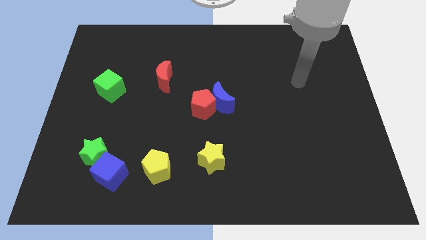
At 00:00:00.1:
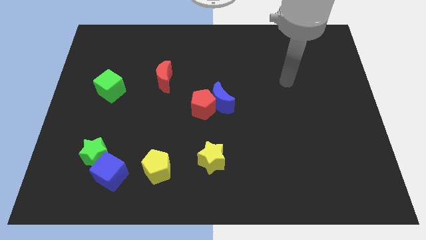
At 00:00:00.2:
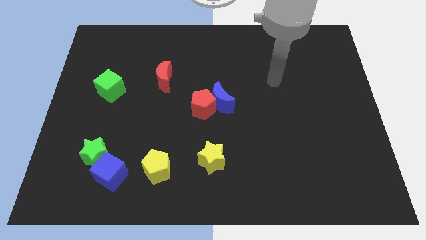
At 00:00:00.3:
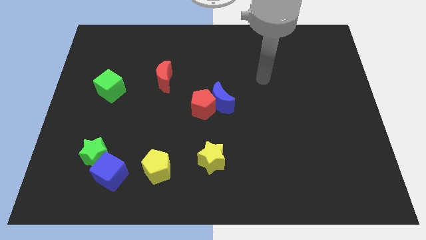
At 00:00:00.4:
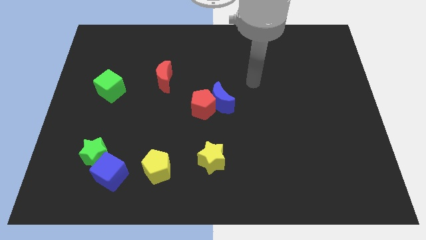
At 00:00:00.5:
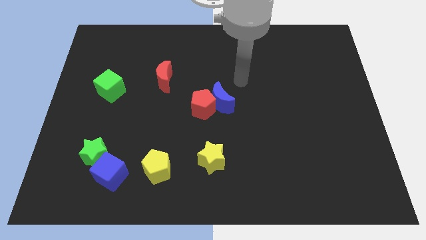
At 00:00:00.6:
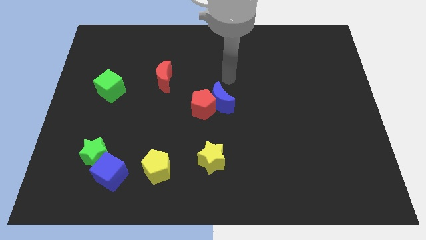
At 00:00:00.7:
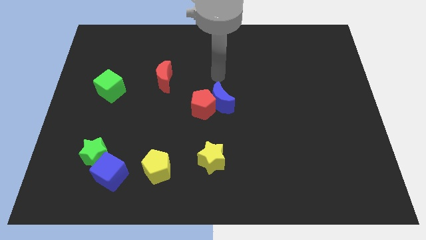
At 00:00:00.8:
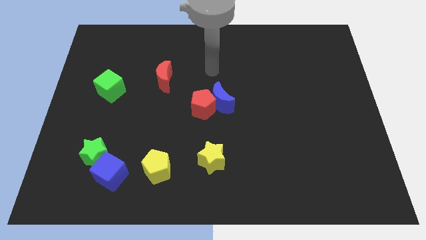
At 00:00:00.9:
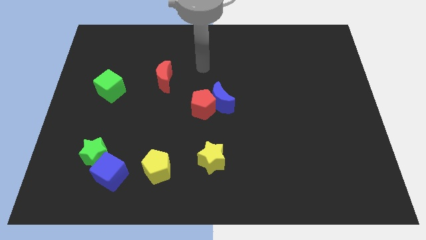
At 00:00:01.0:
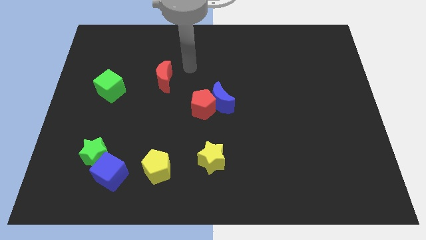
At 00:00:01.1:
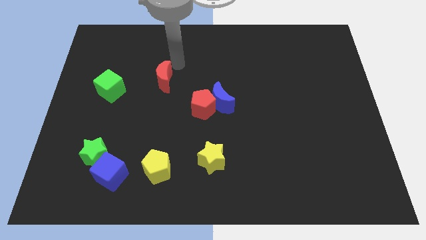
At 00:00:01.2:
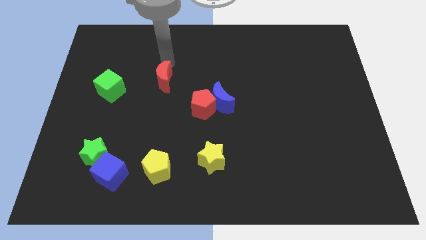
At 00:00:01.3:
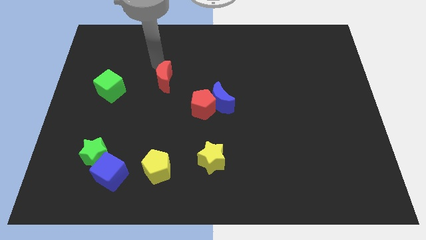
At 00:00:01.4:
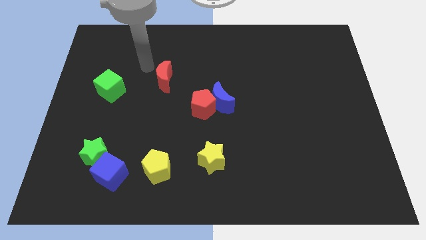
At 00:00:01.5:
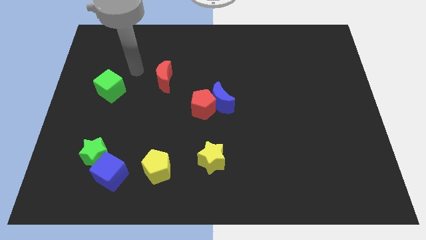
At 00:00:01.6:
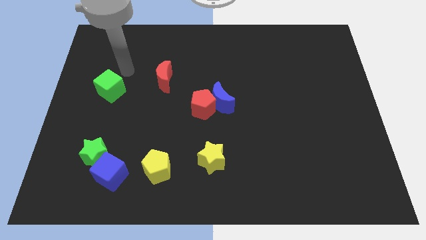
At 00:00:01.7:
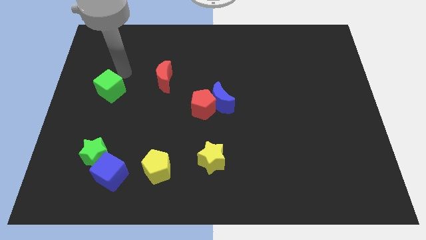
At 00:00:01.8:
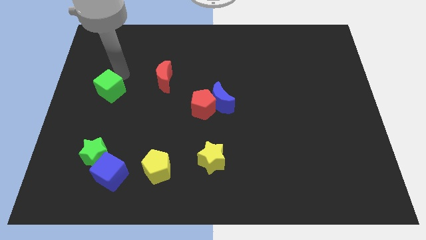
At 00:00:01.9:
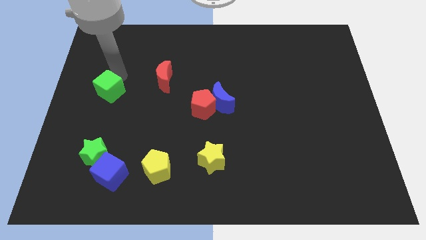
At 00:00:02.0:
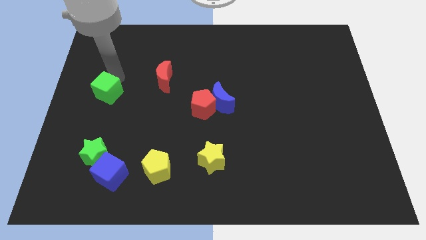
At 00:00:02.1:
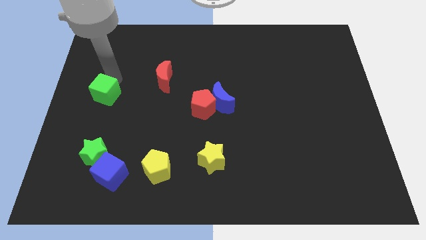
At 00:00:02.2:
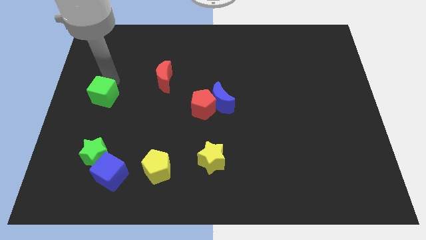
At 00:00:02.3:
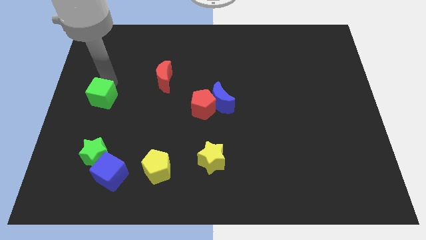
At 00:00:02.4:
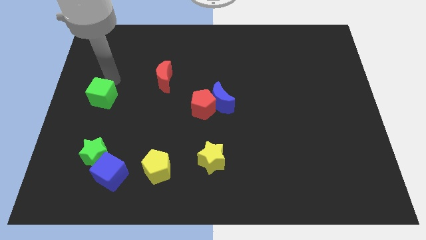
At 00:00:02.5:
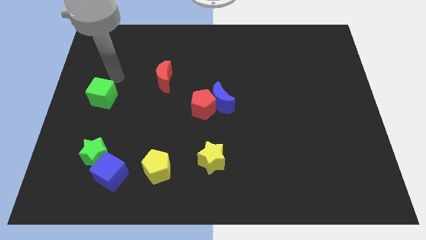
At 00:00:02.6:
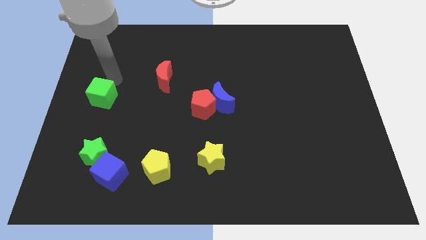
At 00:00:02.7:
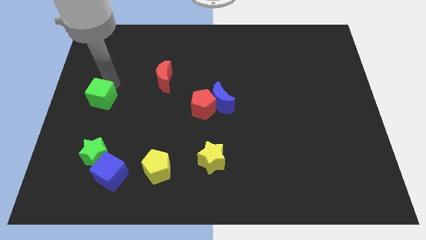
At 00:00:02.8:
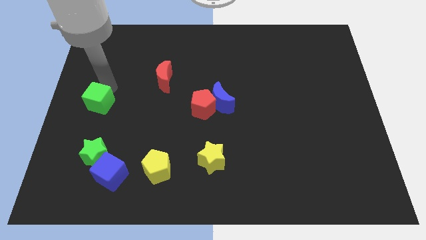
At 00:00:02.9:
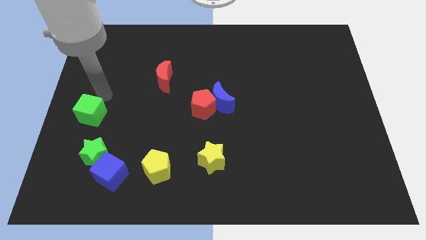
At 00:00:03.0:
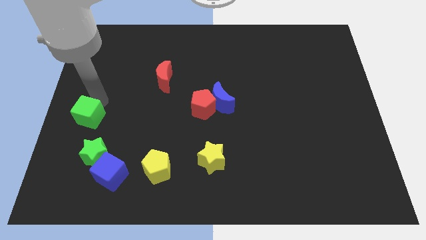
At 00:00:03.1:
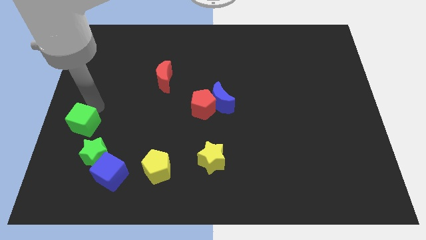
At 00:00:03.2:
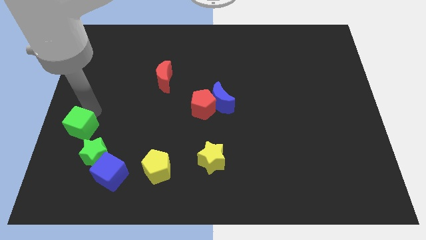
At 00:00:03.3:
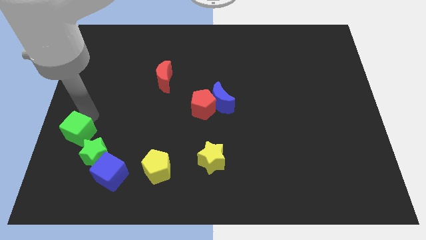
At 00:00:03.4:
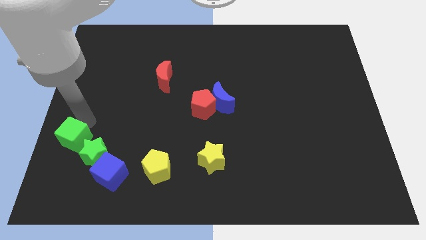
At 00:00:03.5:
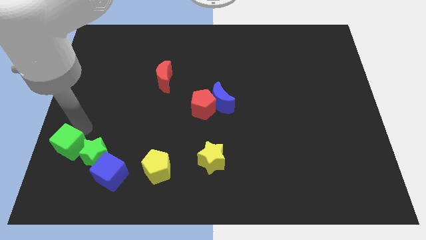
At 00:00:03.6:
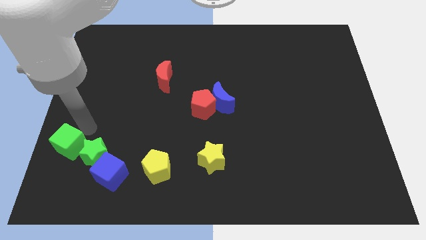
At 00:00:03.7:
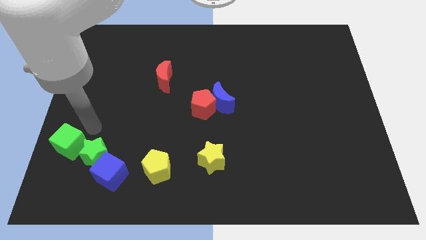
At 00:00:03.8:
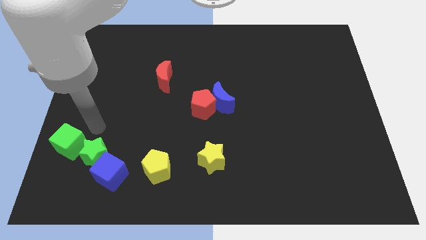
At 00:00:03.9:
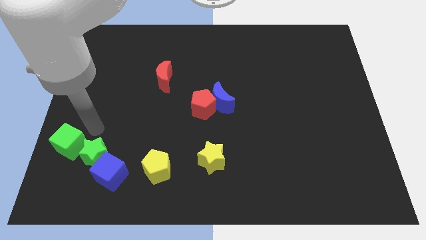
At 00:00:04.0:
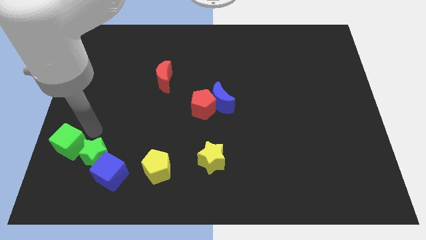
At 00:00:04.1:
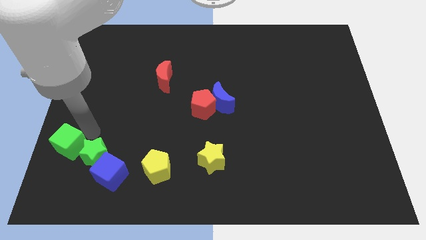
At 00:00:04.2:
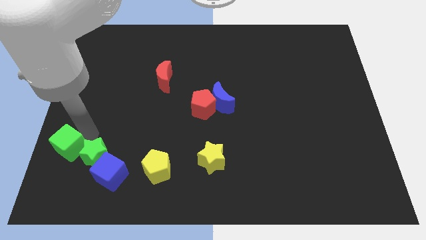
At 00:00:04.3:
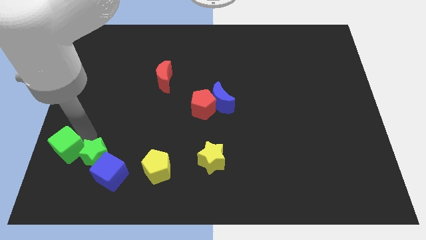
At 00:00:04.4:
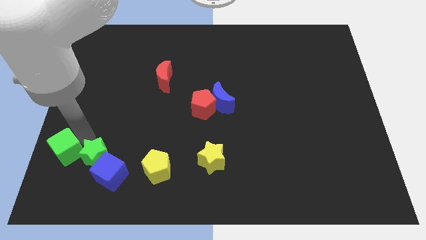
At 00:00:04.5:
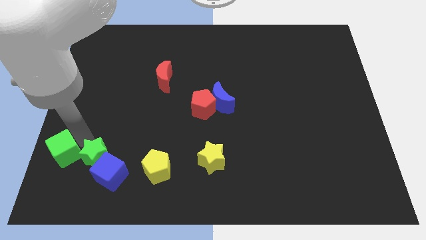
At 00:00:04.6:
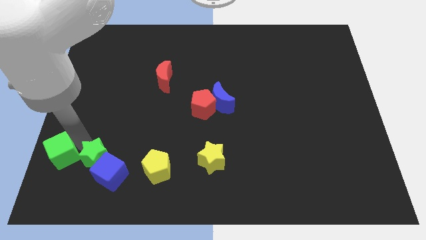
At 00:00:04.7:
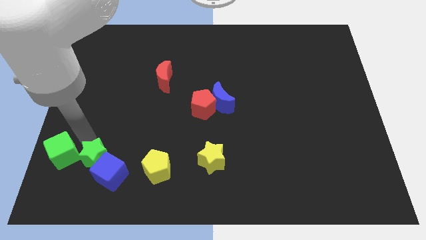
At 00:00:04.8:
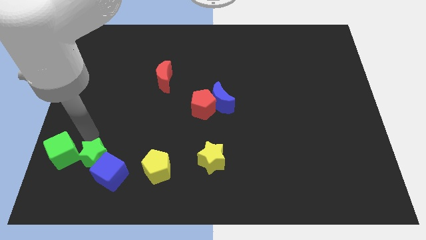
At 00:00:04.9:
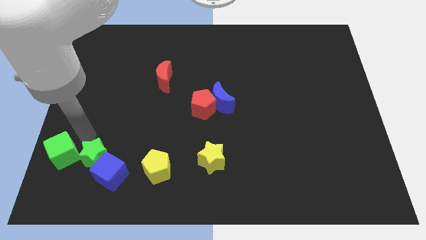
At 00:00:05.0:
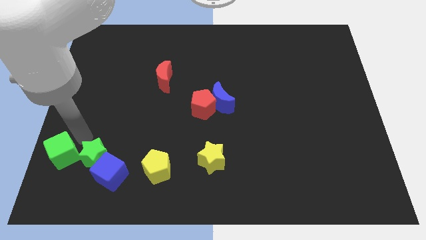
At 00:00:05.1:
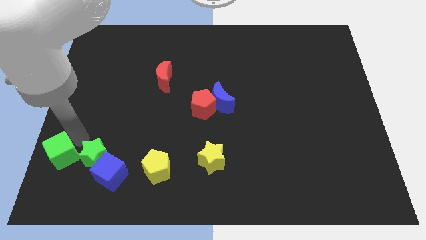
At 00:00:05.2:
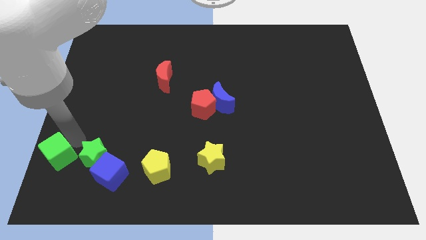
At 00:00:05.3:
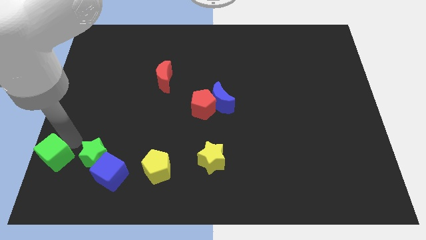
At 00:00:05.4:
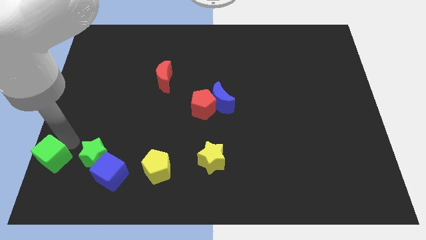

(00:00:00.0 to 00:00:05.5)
put the green cube to the bottom left of the board
